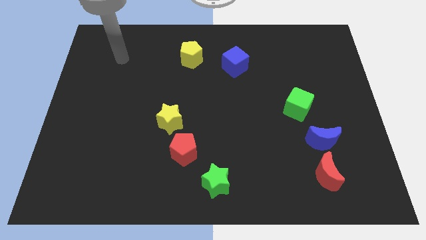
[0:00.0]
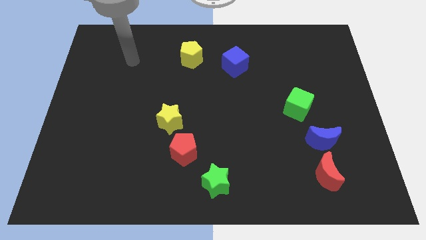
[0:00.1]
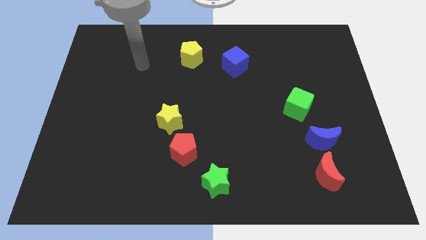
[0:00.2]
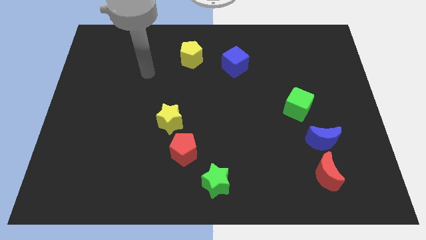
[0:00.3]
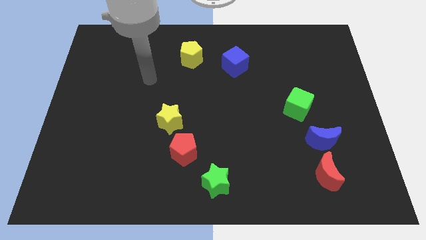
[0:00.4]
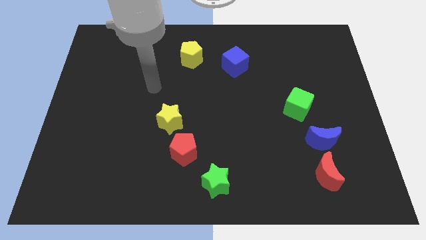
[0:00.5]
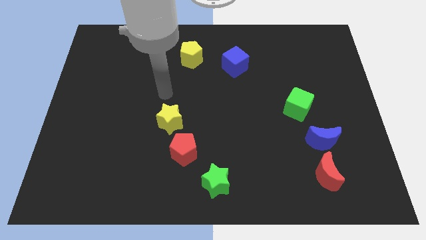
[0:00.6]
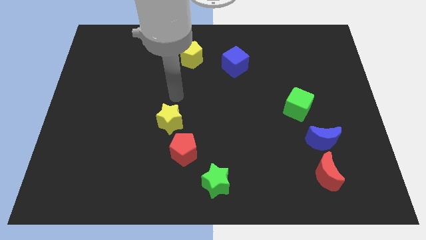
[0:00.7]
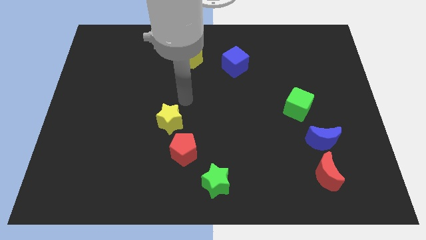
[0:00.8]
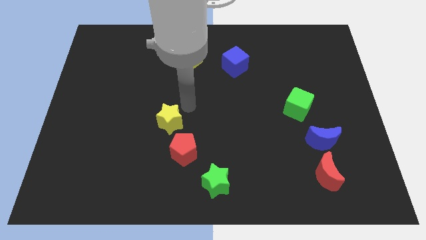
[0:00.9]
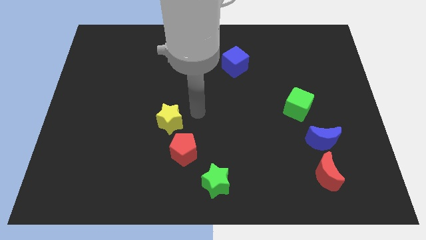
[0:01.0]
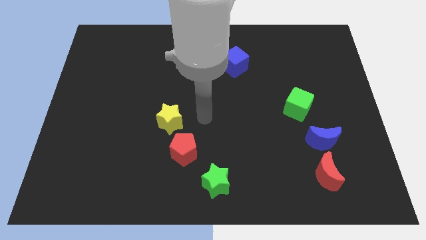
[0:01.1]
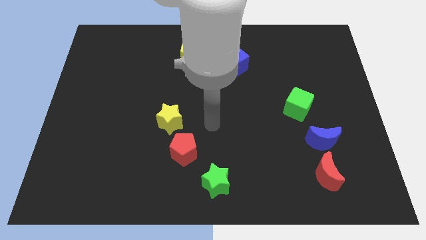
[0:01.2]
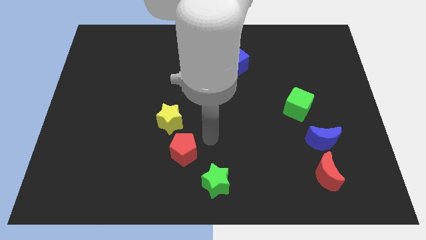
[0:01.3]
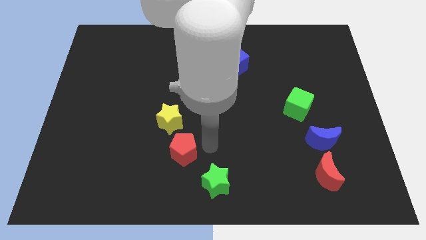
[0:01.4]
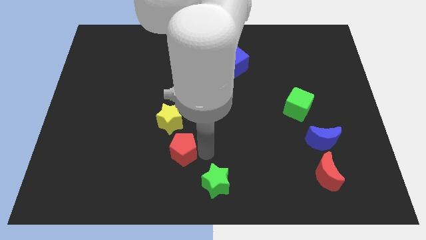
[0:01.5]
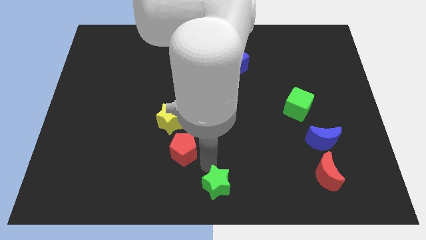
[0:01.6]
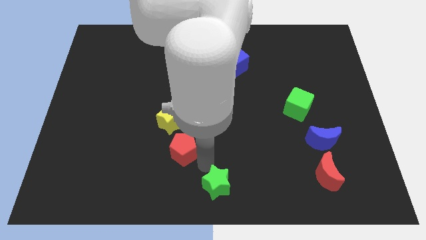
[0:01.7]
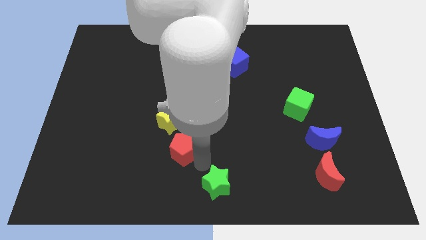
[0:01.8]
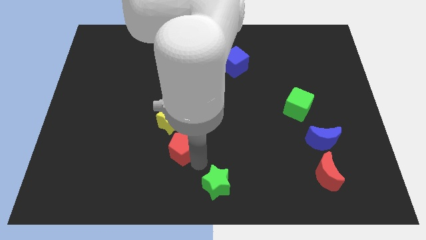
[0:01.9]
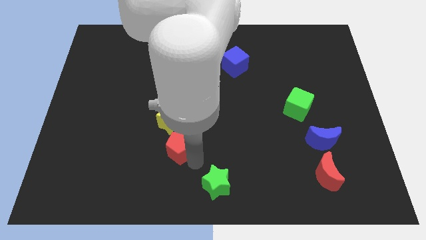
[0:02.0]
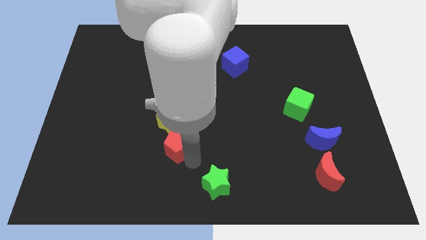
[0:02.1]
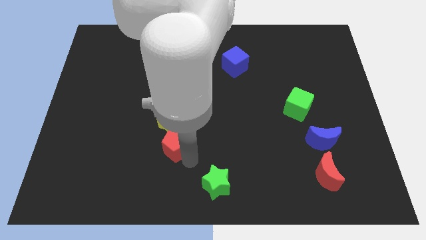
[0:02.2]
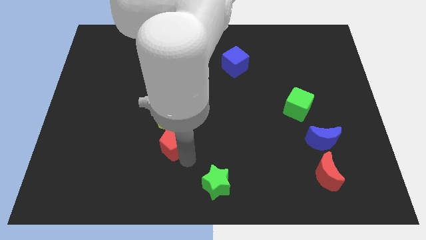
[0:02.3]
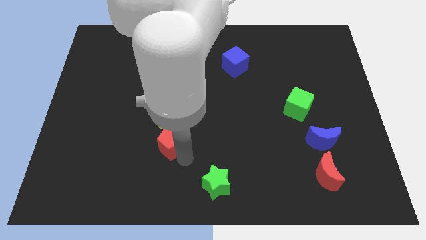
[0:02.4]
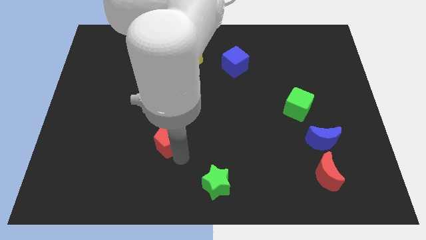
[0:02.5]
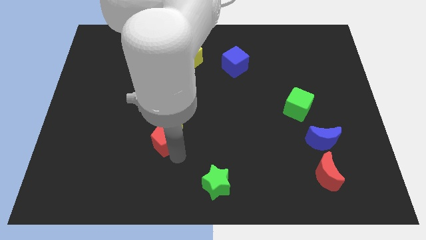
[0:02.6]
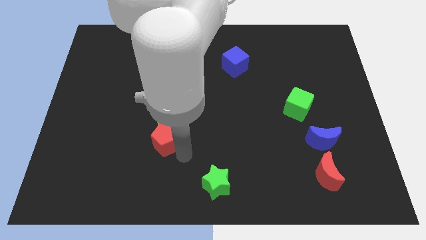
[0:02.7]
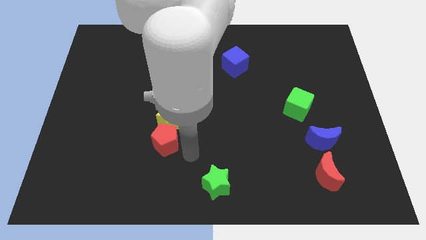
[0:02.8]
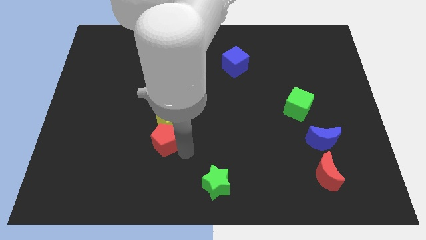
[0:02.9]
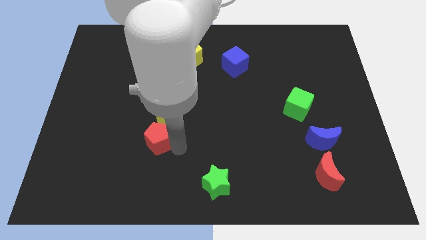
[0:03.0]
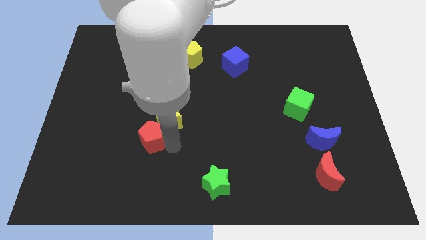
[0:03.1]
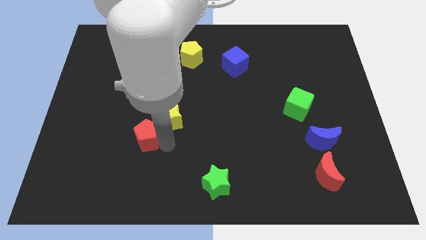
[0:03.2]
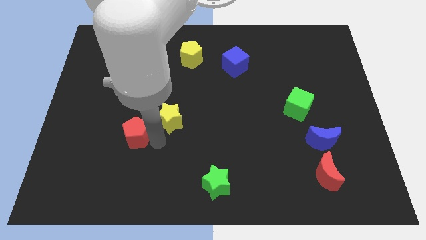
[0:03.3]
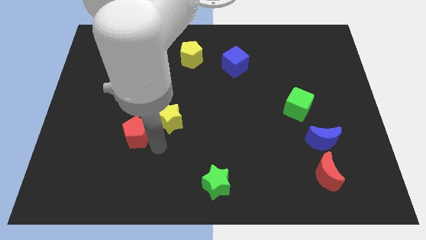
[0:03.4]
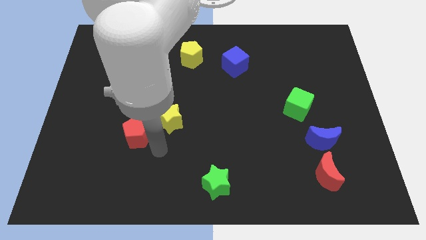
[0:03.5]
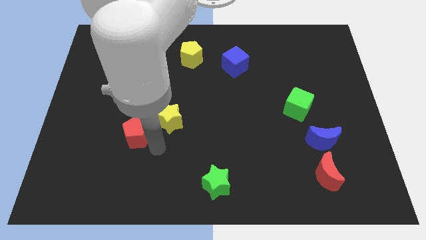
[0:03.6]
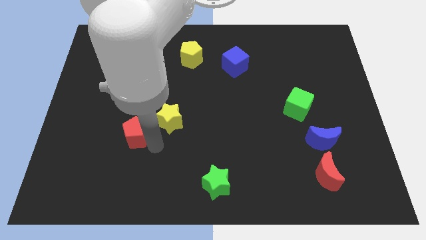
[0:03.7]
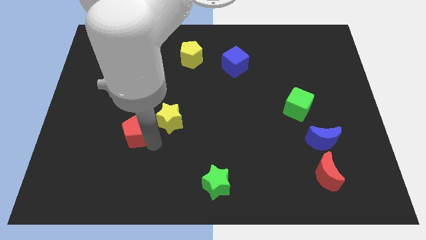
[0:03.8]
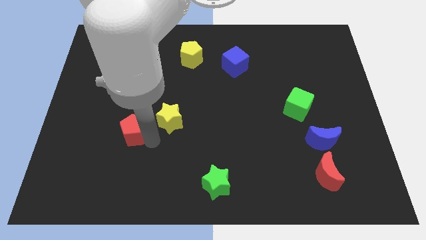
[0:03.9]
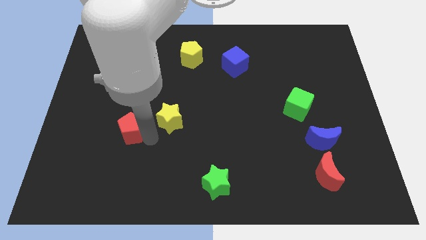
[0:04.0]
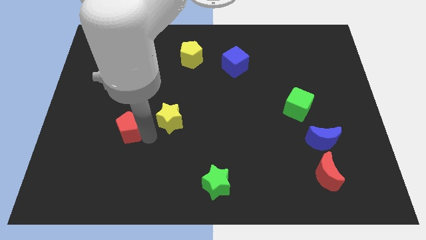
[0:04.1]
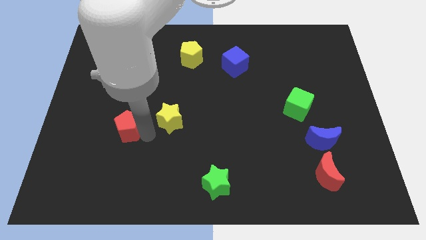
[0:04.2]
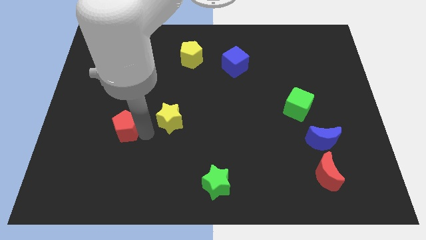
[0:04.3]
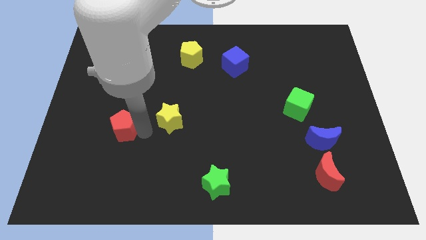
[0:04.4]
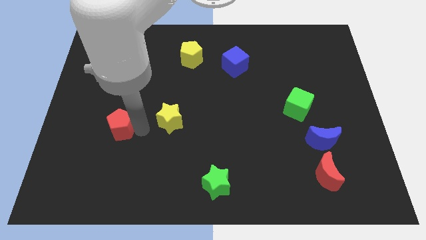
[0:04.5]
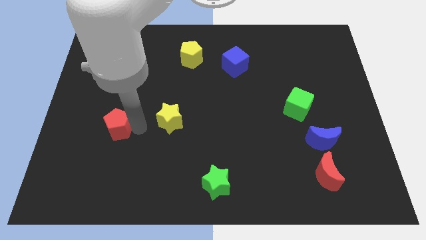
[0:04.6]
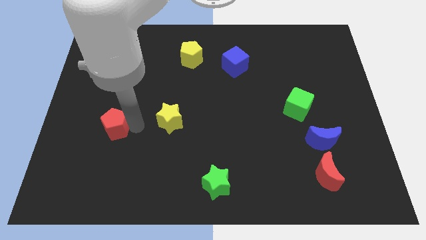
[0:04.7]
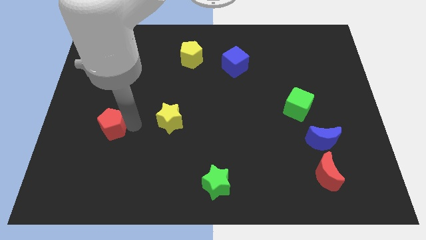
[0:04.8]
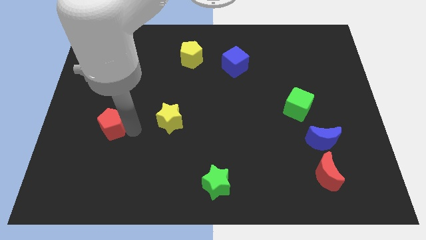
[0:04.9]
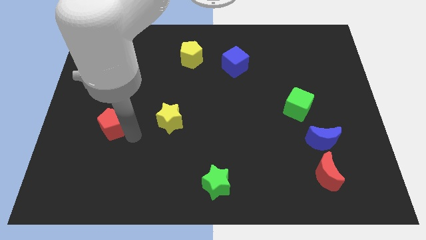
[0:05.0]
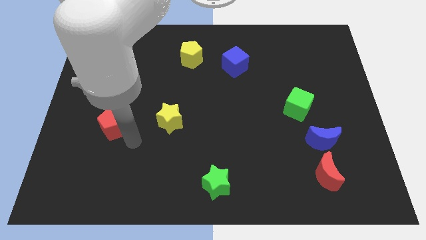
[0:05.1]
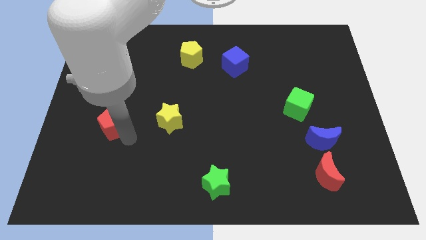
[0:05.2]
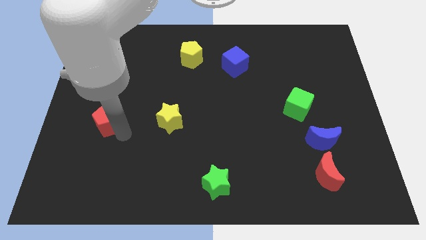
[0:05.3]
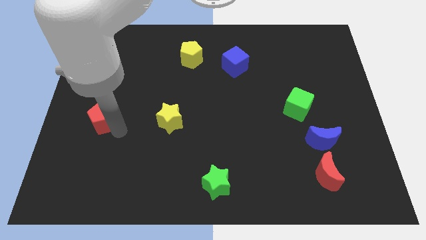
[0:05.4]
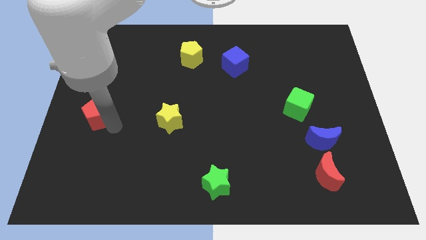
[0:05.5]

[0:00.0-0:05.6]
slide the red pentagon to the left side of the board

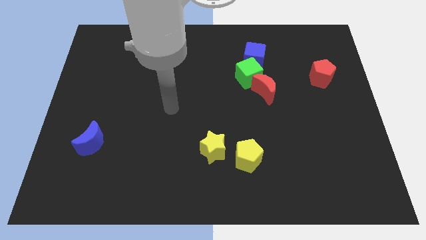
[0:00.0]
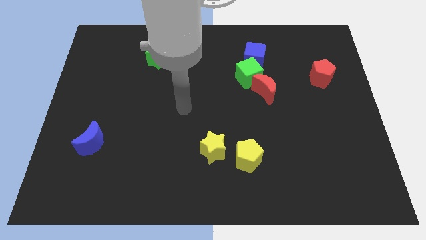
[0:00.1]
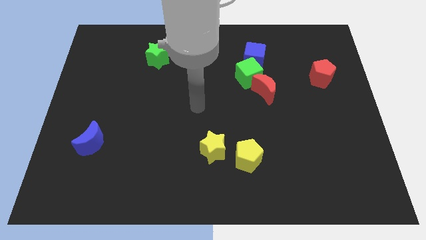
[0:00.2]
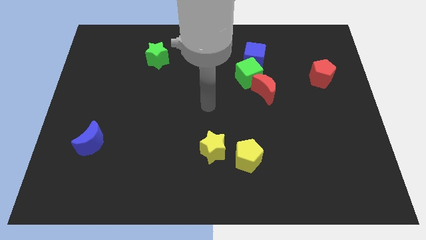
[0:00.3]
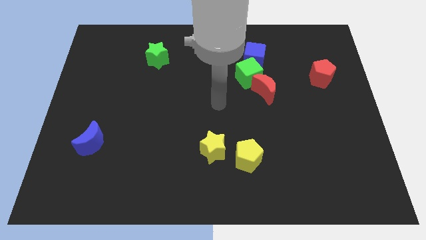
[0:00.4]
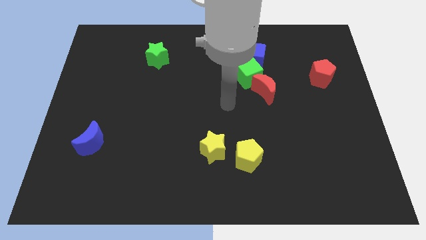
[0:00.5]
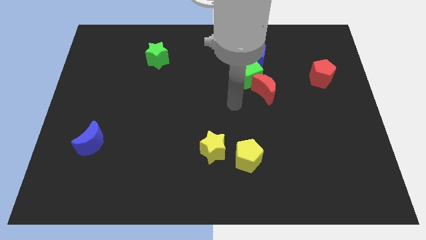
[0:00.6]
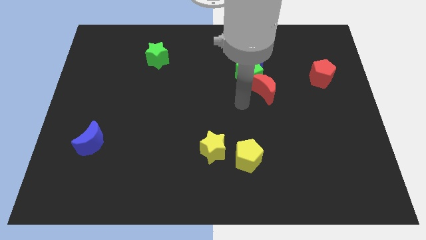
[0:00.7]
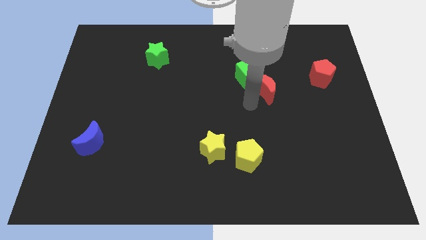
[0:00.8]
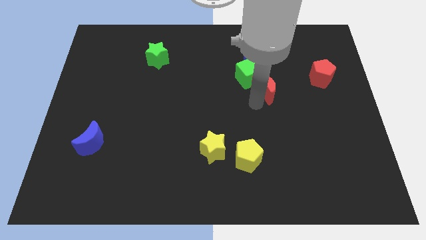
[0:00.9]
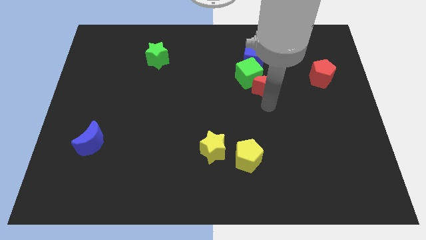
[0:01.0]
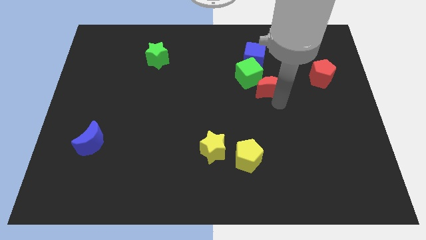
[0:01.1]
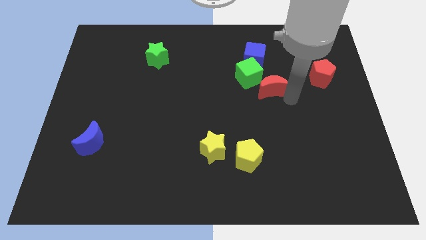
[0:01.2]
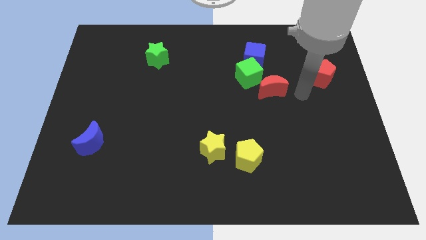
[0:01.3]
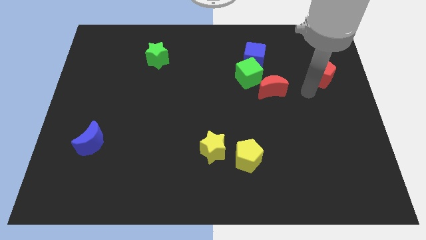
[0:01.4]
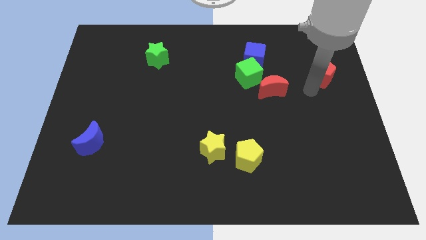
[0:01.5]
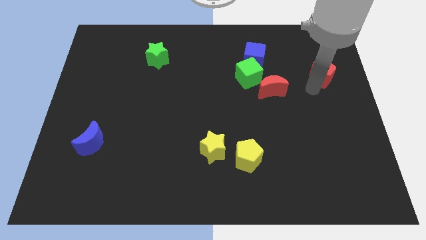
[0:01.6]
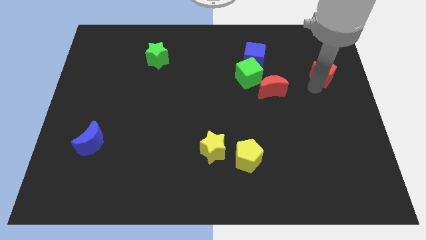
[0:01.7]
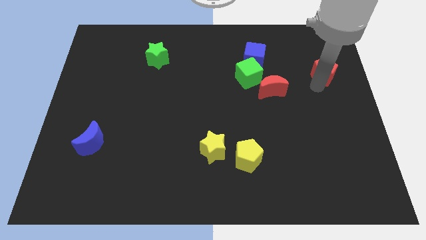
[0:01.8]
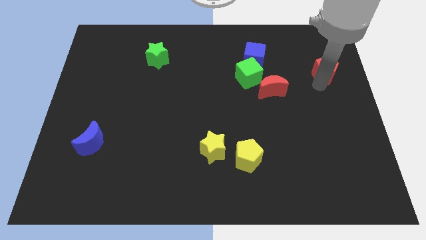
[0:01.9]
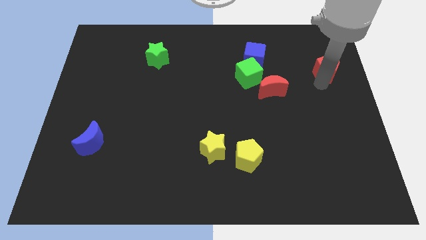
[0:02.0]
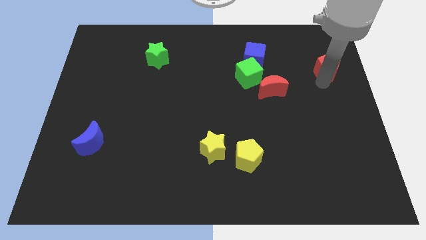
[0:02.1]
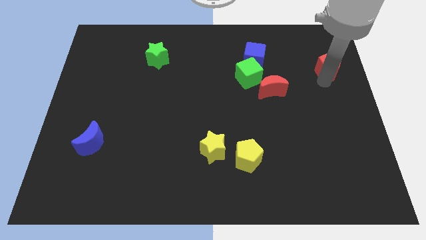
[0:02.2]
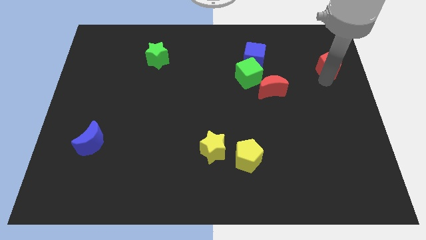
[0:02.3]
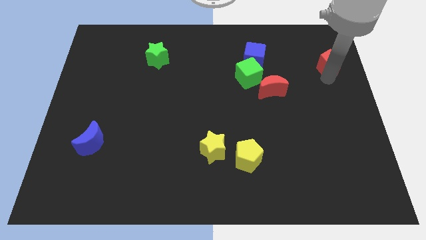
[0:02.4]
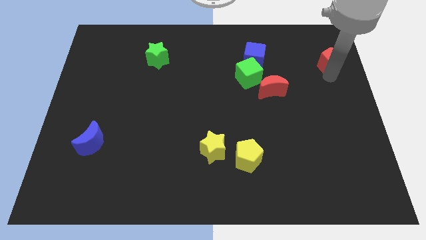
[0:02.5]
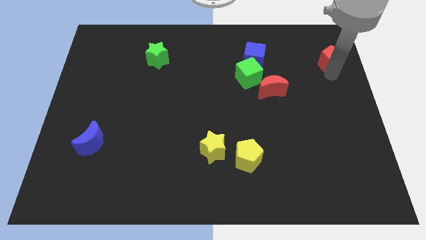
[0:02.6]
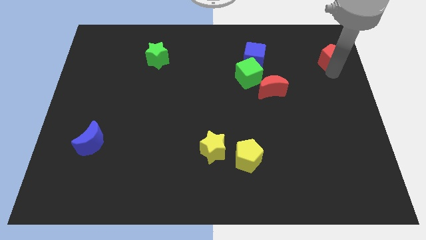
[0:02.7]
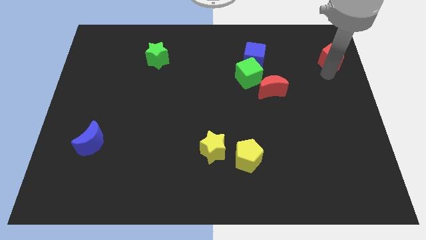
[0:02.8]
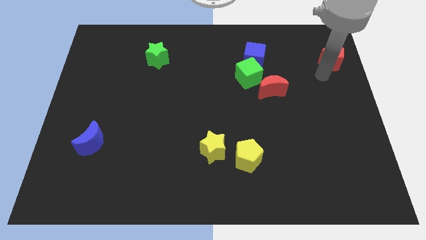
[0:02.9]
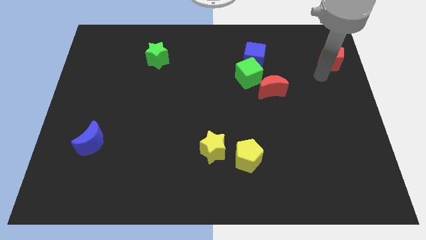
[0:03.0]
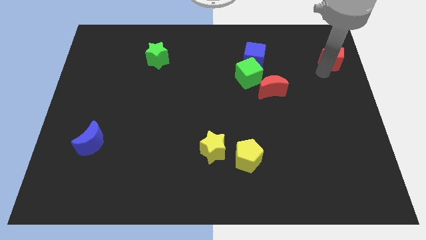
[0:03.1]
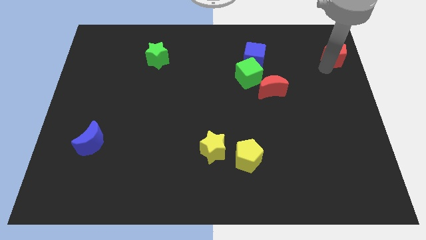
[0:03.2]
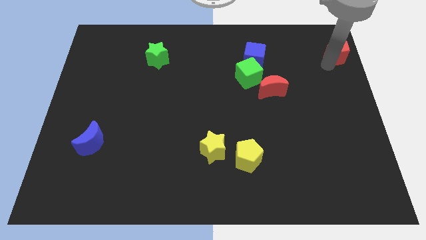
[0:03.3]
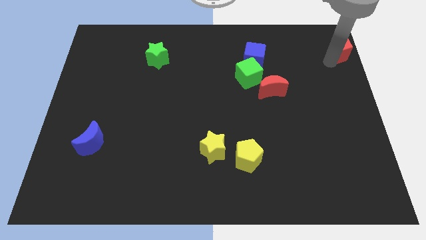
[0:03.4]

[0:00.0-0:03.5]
push the red pentagon to the top right
